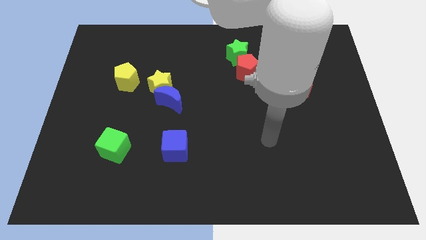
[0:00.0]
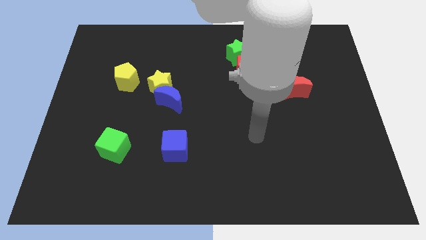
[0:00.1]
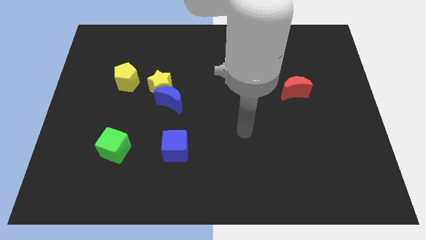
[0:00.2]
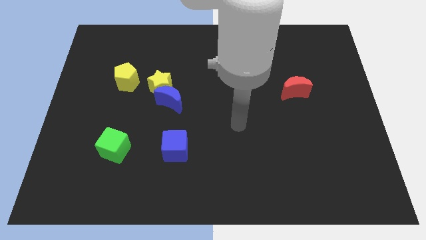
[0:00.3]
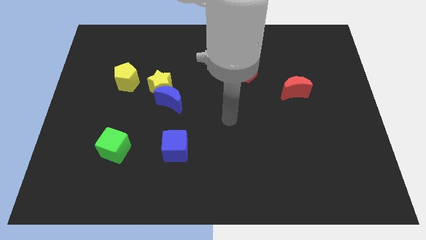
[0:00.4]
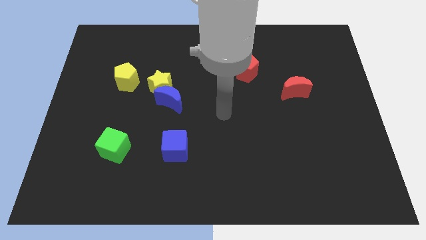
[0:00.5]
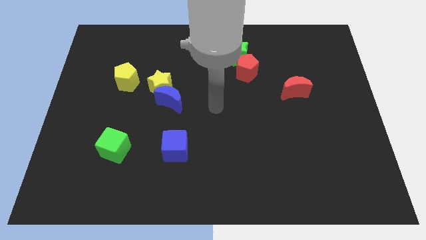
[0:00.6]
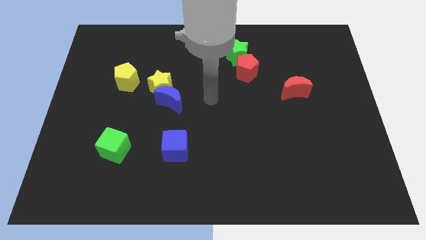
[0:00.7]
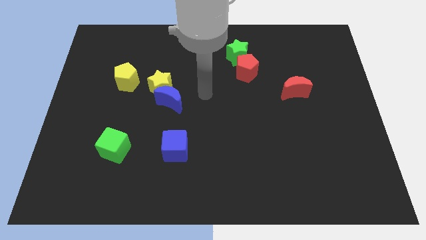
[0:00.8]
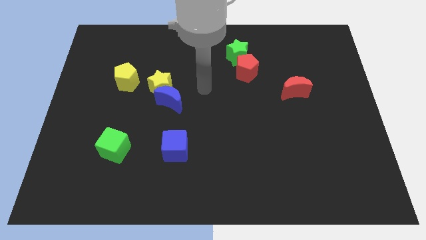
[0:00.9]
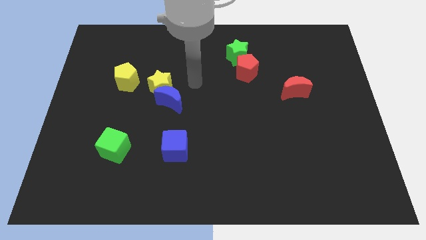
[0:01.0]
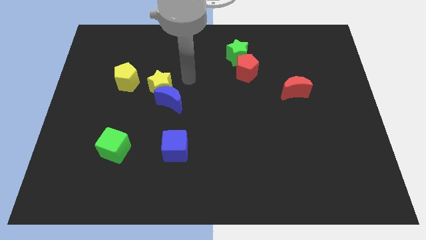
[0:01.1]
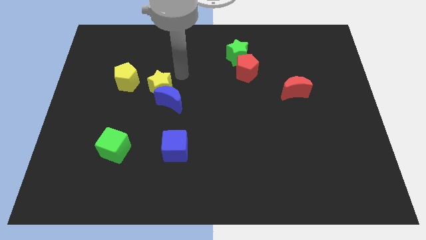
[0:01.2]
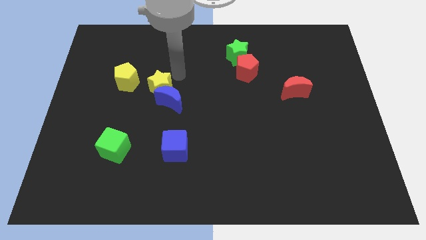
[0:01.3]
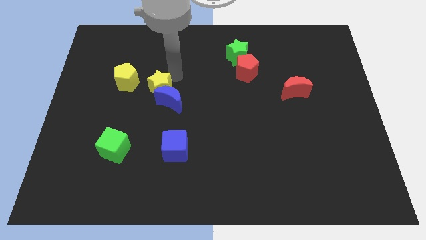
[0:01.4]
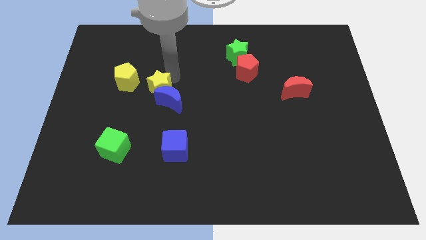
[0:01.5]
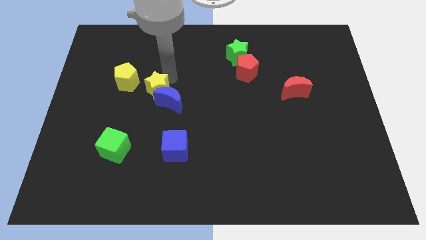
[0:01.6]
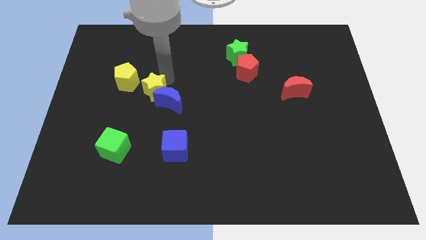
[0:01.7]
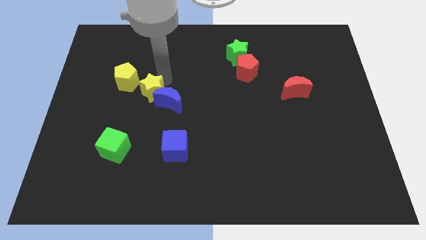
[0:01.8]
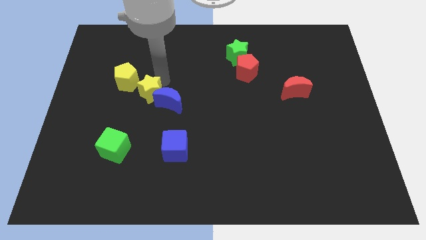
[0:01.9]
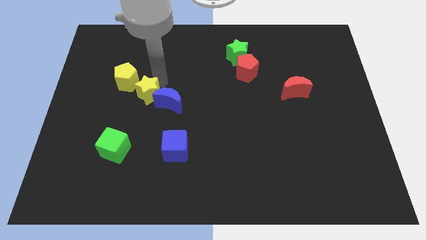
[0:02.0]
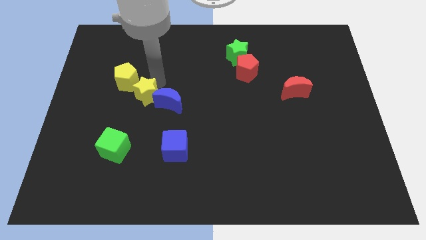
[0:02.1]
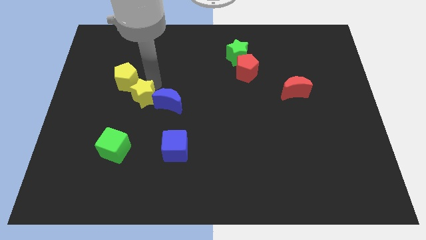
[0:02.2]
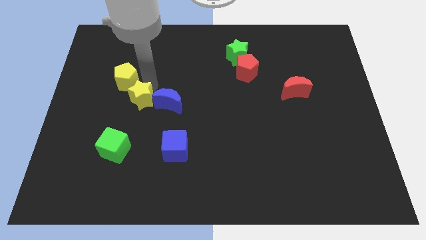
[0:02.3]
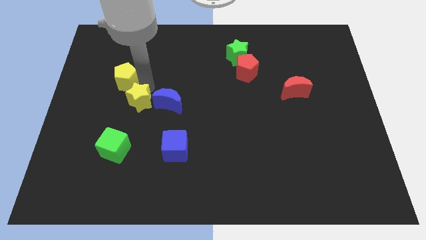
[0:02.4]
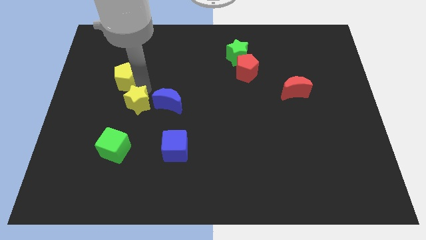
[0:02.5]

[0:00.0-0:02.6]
slide the yellow star a little down and left diagonally

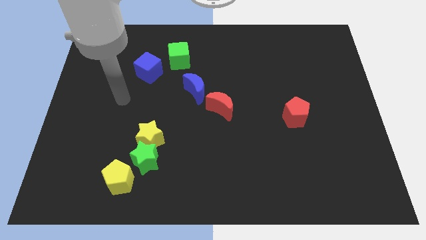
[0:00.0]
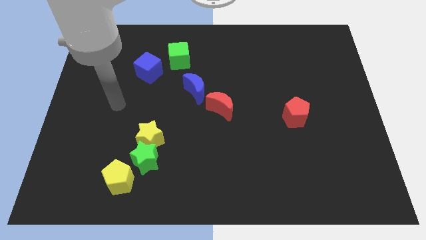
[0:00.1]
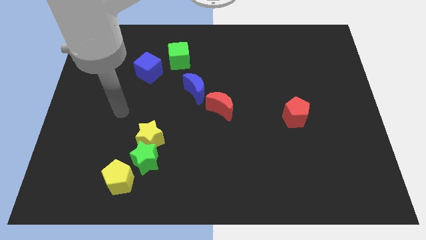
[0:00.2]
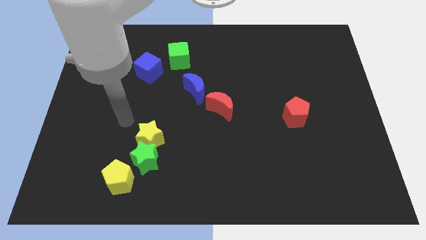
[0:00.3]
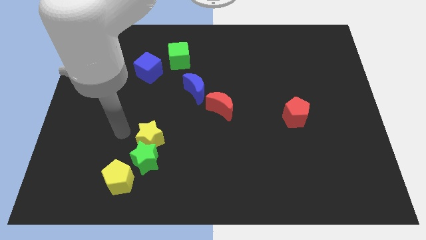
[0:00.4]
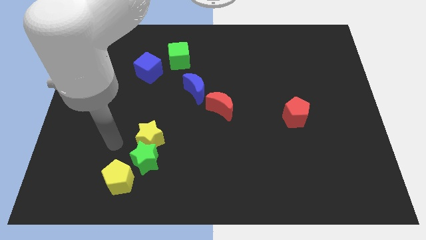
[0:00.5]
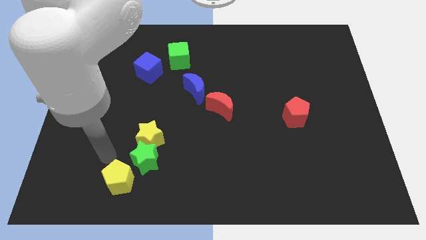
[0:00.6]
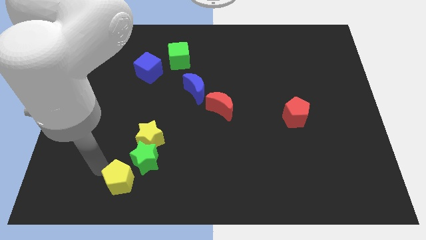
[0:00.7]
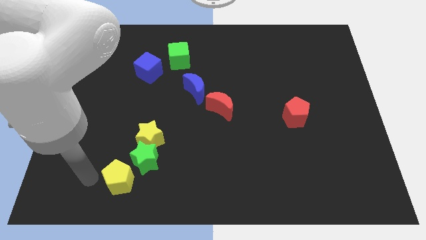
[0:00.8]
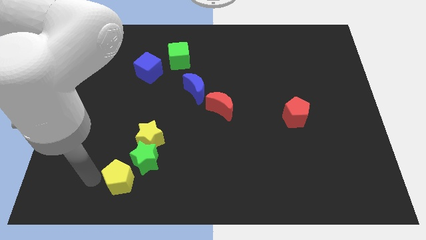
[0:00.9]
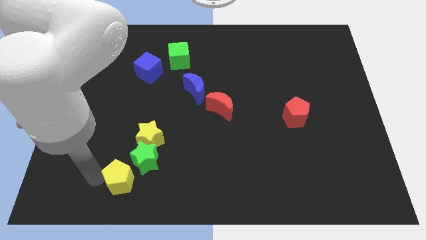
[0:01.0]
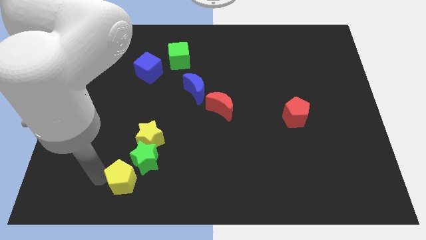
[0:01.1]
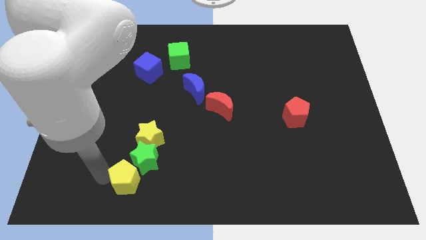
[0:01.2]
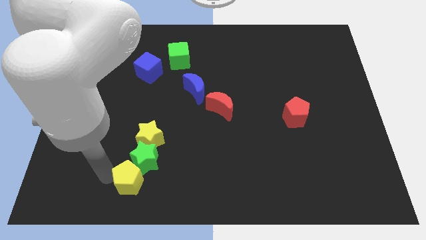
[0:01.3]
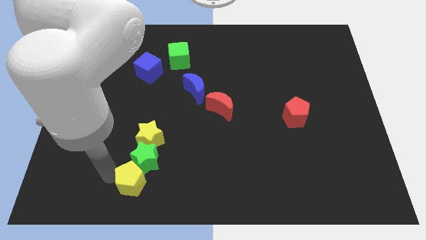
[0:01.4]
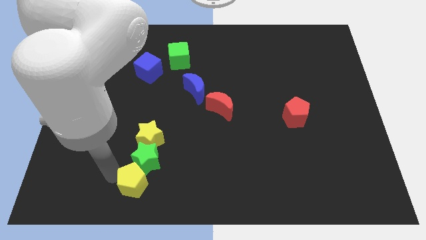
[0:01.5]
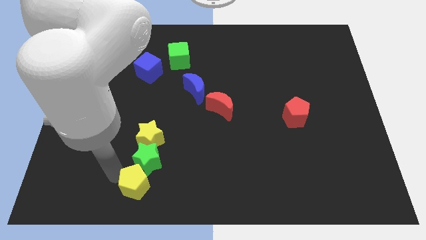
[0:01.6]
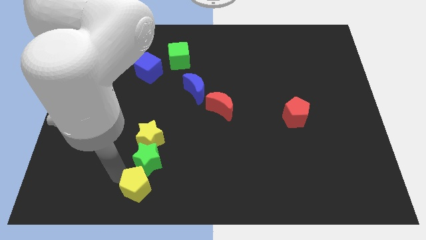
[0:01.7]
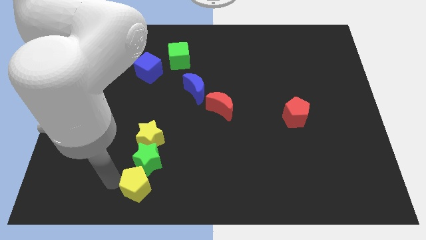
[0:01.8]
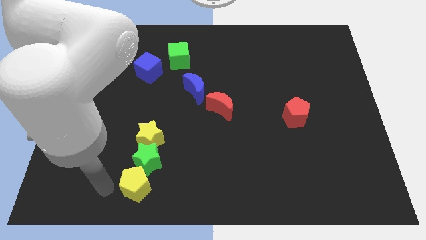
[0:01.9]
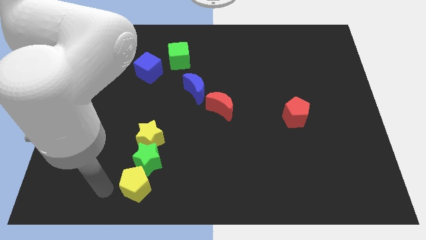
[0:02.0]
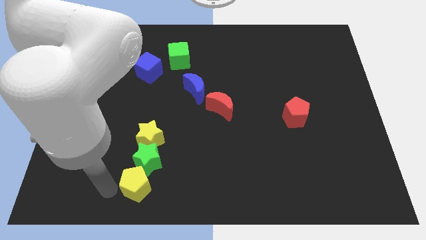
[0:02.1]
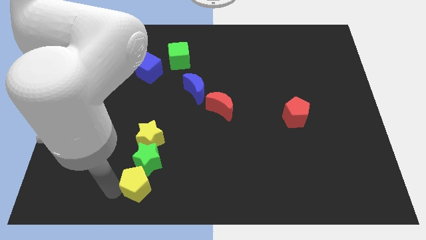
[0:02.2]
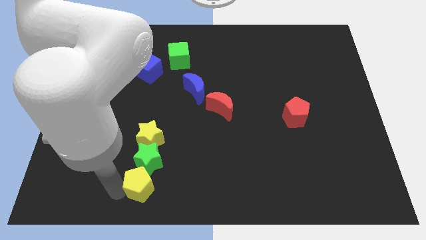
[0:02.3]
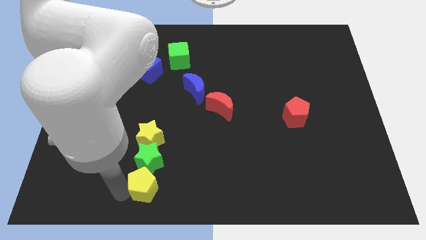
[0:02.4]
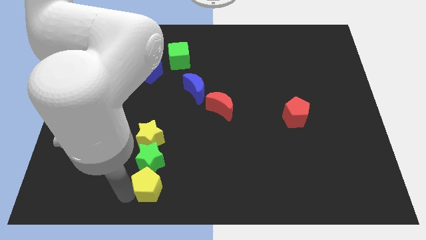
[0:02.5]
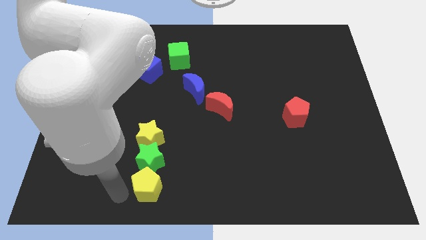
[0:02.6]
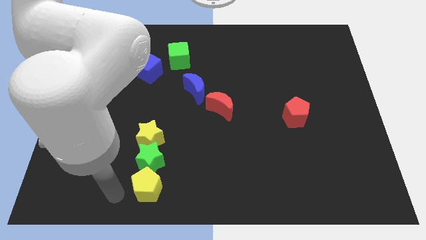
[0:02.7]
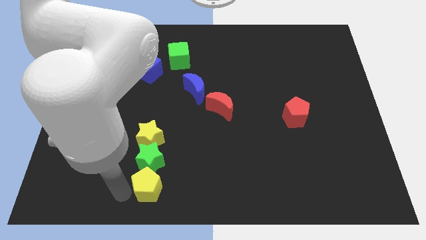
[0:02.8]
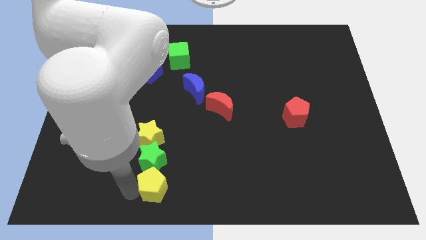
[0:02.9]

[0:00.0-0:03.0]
slightly move the yellow pentagon right

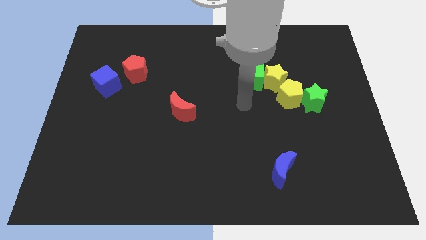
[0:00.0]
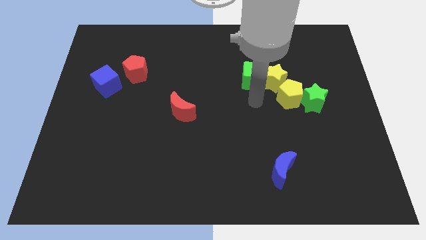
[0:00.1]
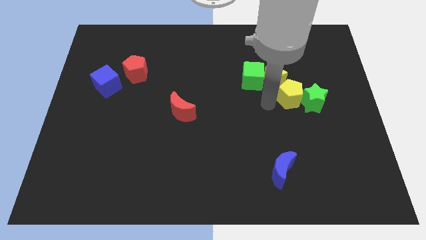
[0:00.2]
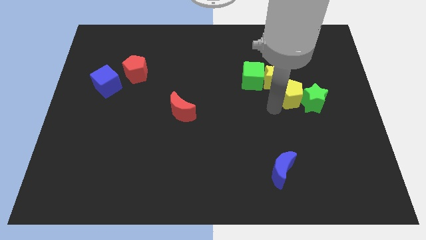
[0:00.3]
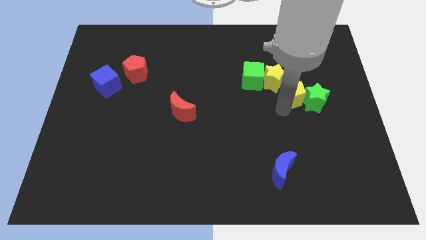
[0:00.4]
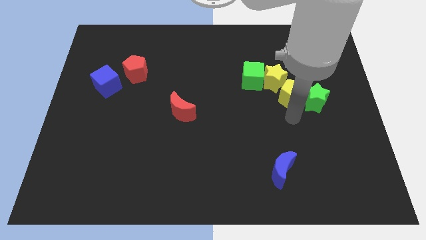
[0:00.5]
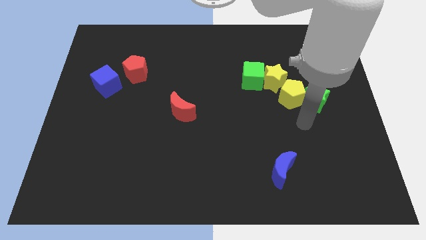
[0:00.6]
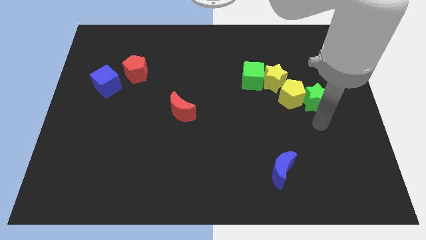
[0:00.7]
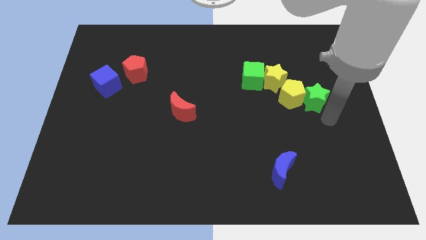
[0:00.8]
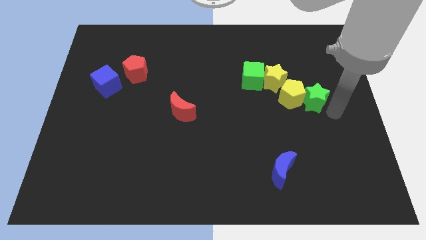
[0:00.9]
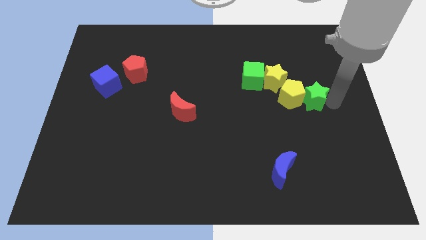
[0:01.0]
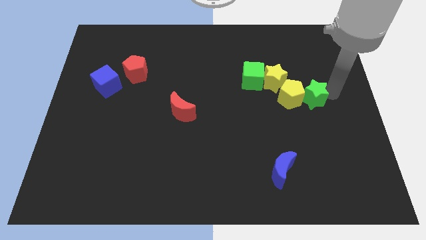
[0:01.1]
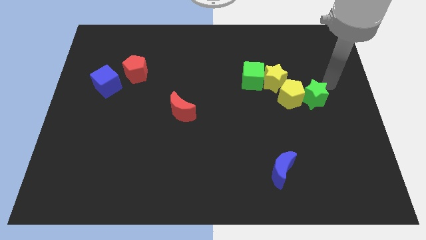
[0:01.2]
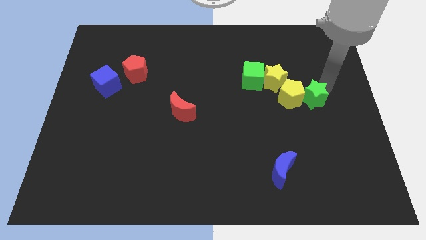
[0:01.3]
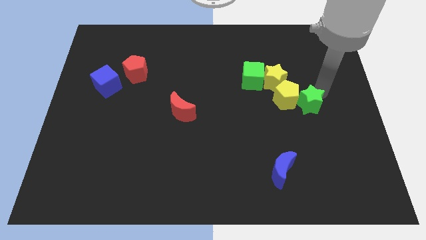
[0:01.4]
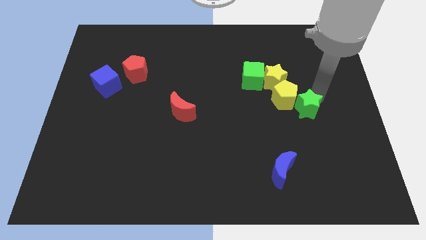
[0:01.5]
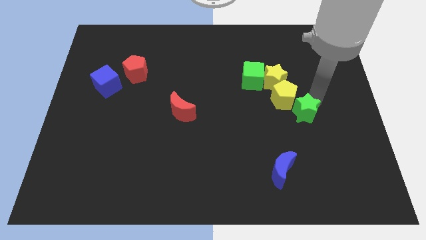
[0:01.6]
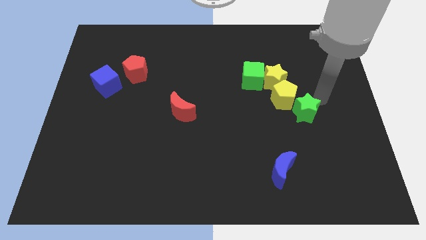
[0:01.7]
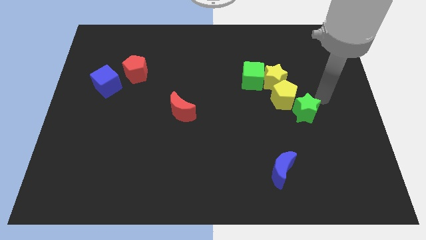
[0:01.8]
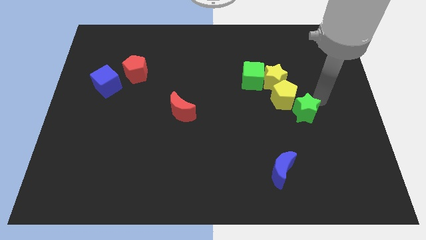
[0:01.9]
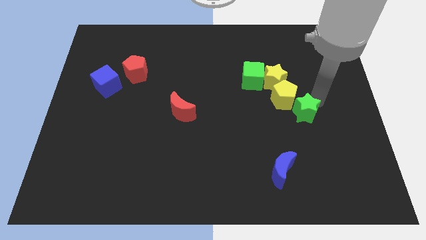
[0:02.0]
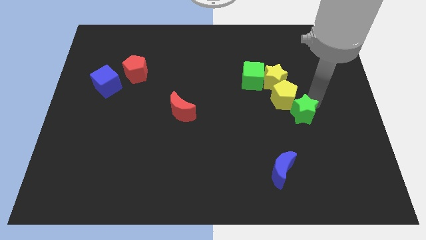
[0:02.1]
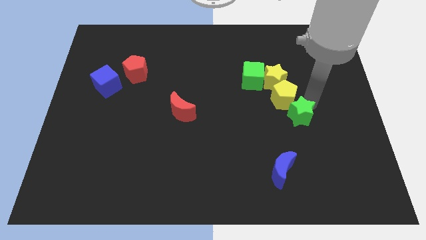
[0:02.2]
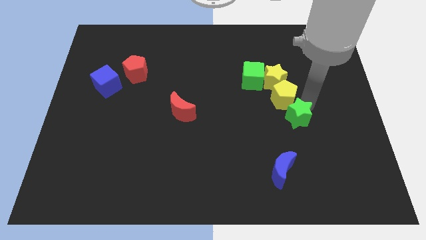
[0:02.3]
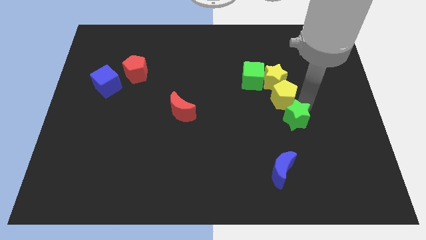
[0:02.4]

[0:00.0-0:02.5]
move the green star somewhat down and then to the left
